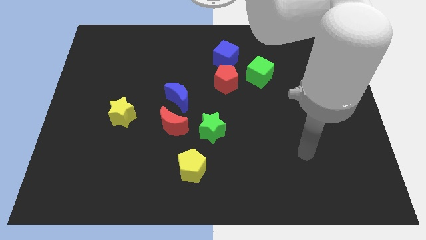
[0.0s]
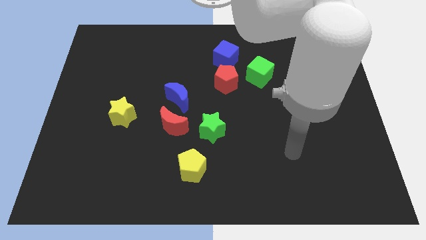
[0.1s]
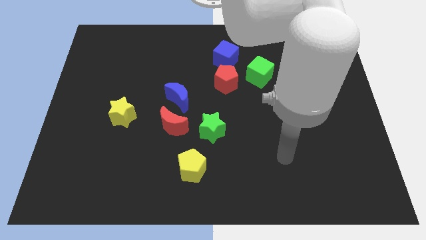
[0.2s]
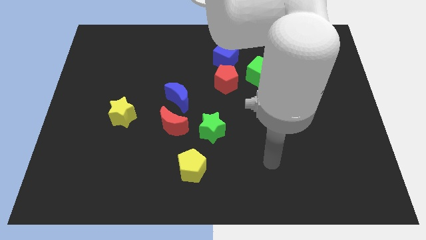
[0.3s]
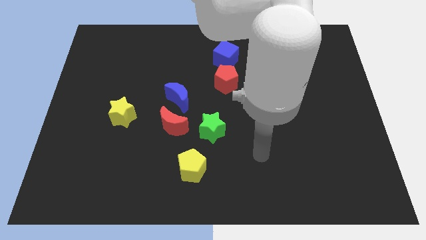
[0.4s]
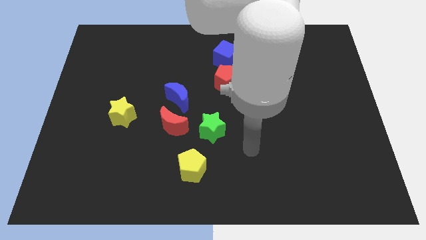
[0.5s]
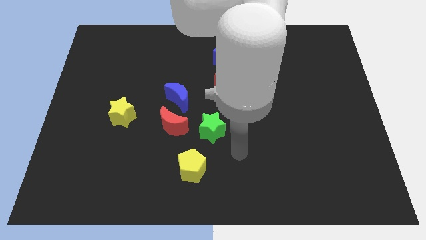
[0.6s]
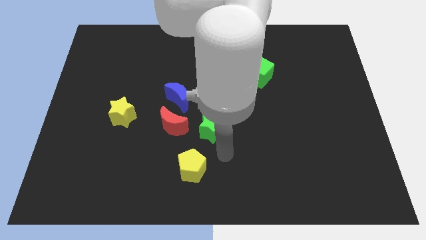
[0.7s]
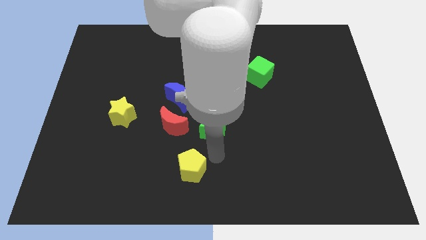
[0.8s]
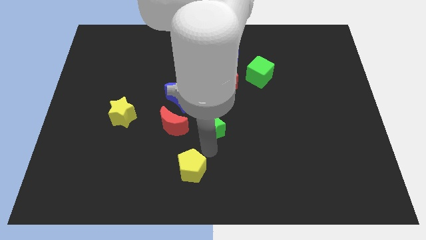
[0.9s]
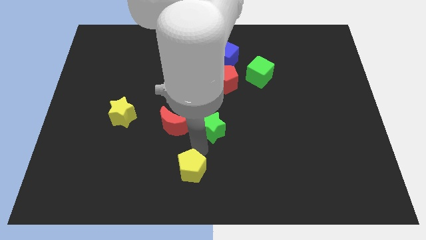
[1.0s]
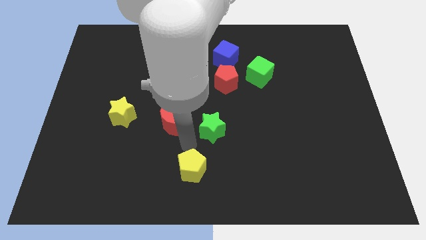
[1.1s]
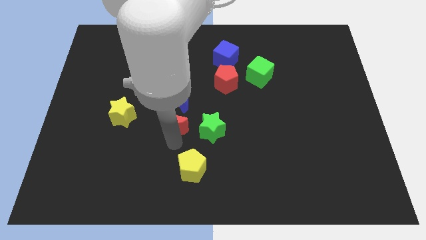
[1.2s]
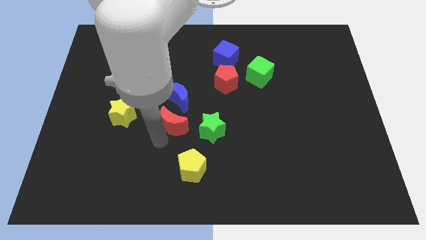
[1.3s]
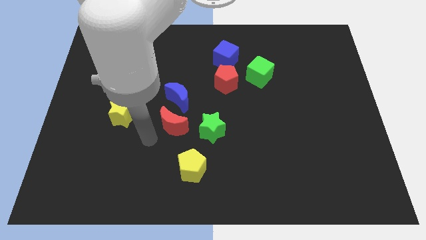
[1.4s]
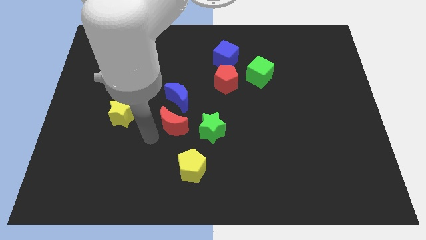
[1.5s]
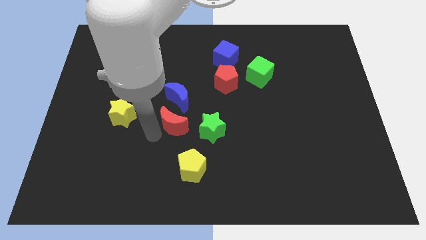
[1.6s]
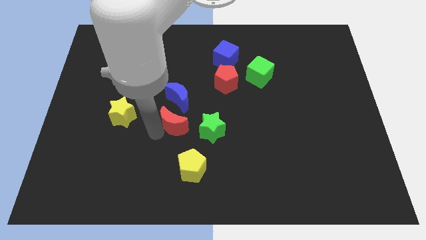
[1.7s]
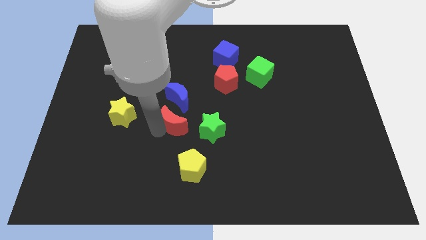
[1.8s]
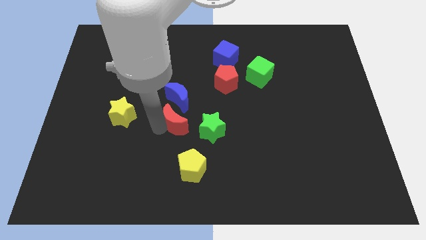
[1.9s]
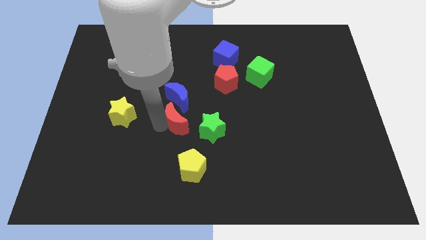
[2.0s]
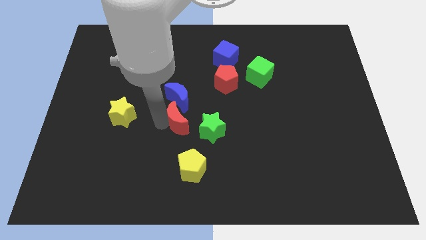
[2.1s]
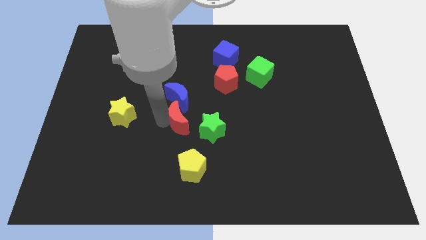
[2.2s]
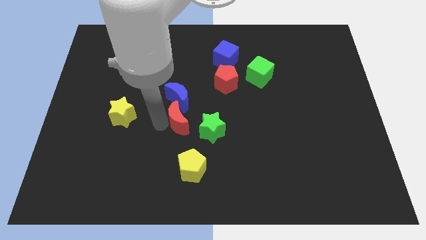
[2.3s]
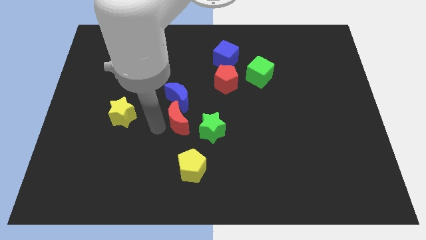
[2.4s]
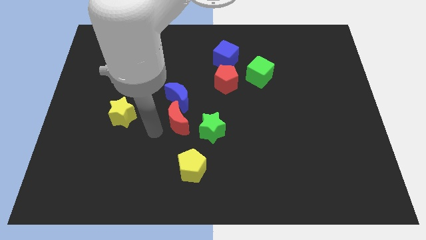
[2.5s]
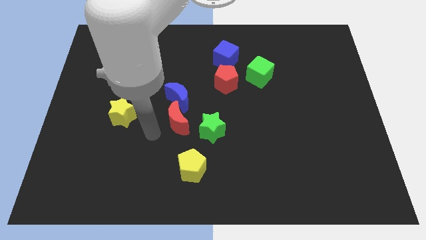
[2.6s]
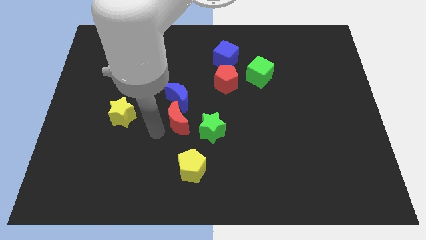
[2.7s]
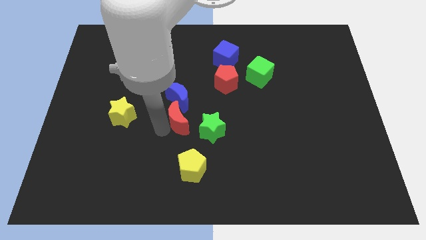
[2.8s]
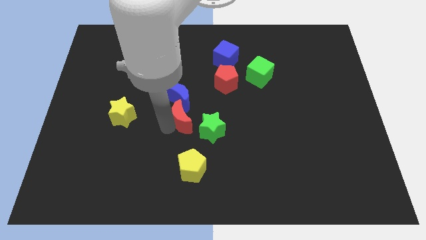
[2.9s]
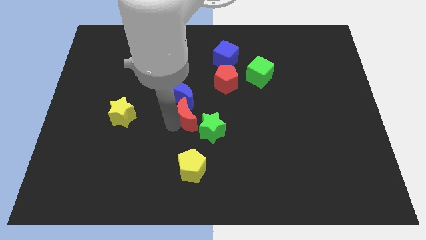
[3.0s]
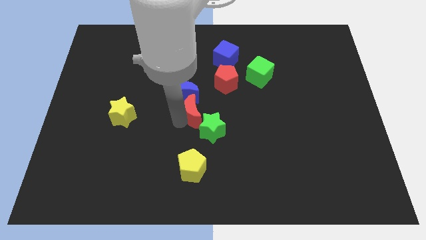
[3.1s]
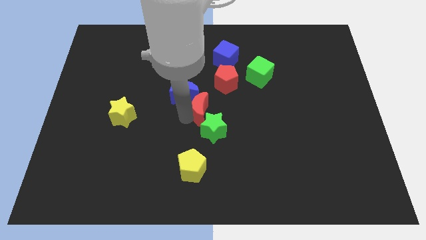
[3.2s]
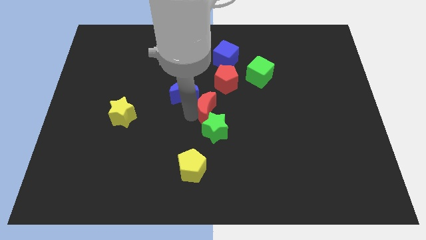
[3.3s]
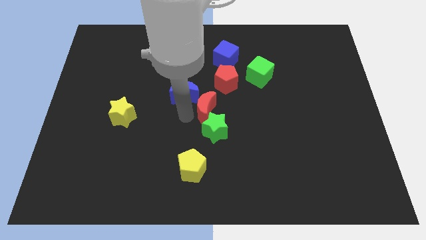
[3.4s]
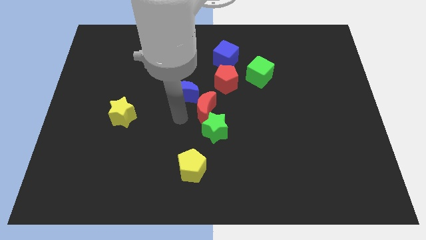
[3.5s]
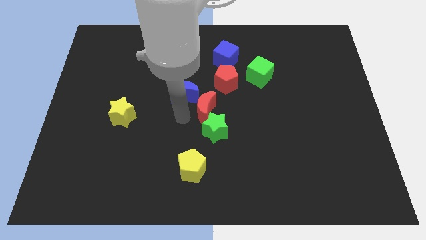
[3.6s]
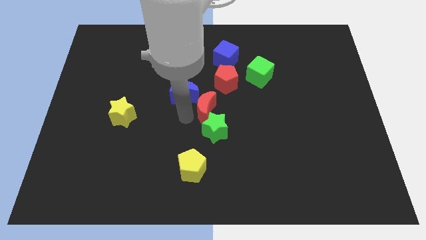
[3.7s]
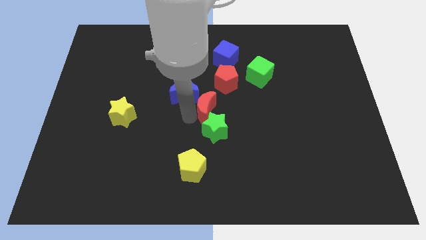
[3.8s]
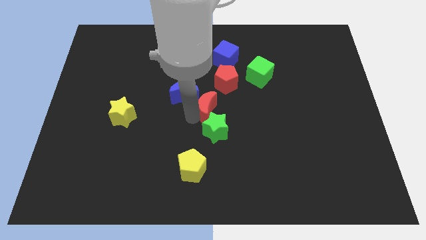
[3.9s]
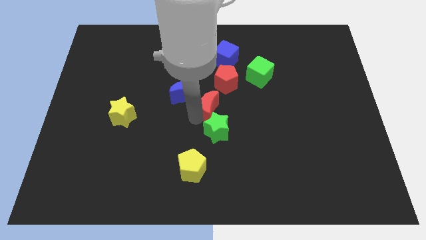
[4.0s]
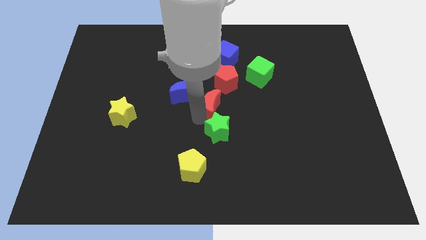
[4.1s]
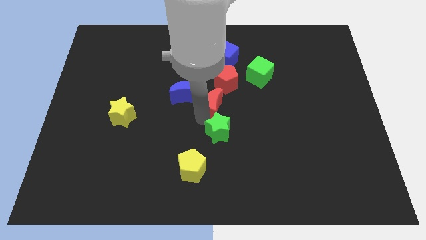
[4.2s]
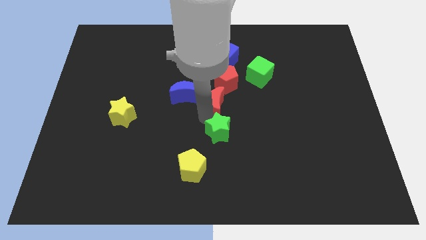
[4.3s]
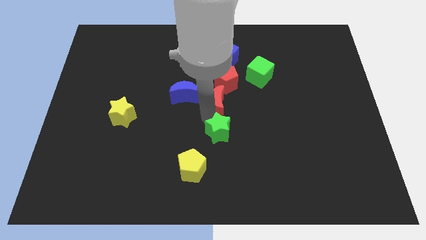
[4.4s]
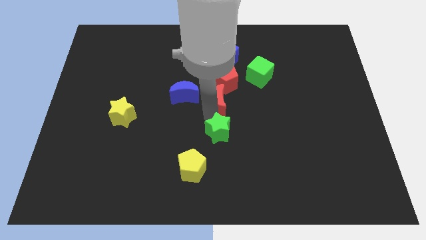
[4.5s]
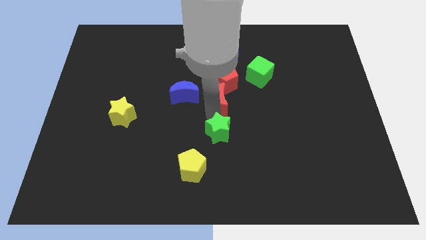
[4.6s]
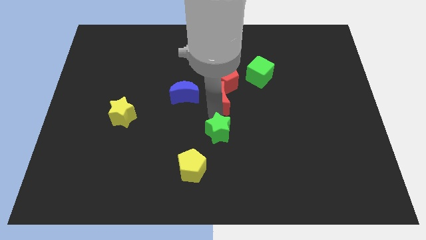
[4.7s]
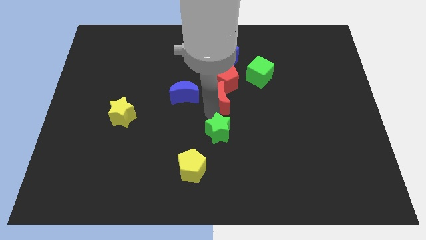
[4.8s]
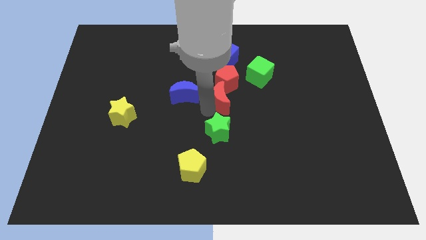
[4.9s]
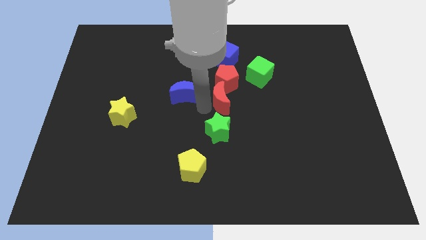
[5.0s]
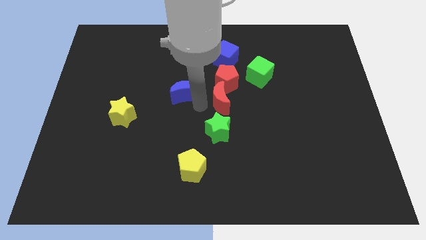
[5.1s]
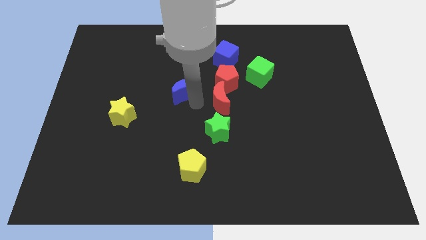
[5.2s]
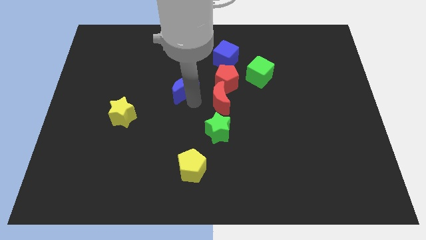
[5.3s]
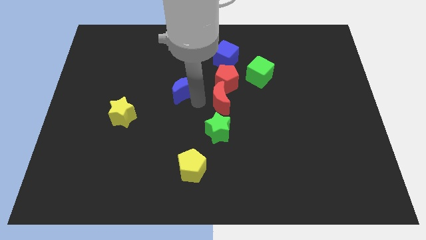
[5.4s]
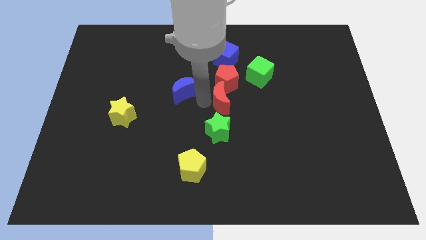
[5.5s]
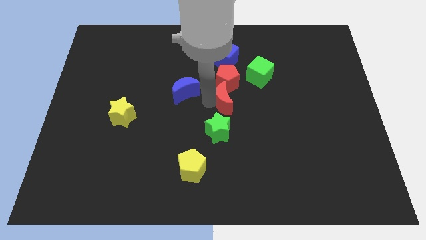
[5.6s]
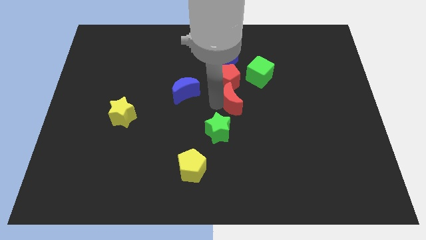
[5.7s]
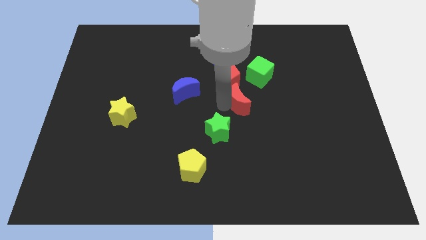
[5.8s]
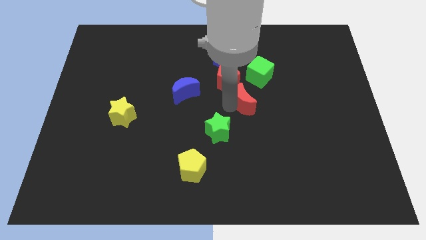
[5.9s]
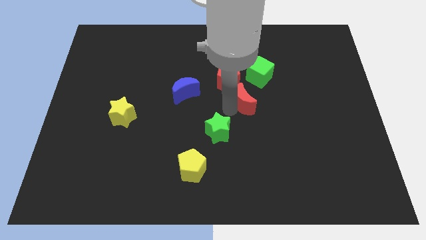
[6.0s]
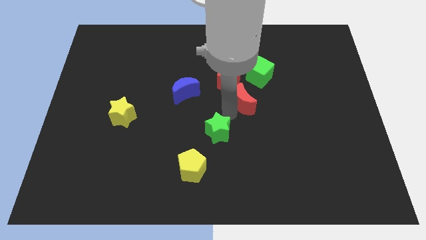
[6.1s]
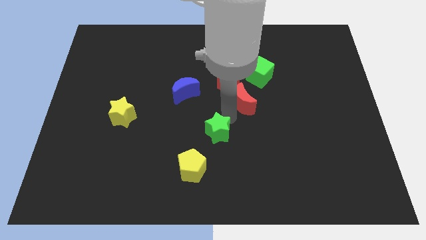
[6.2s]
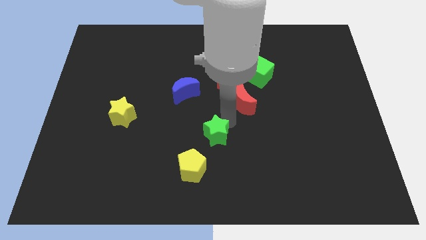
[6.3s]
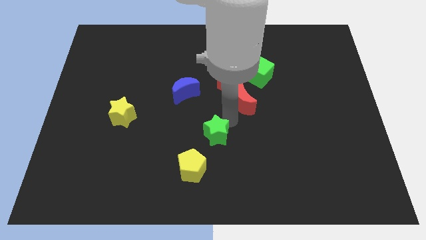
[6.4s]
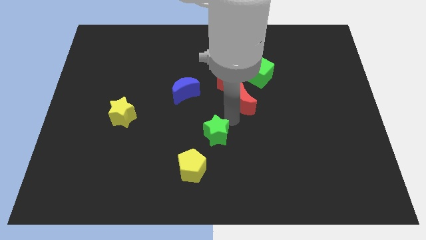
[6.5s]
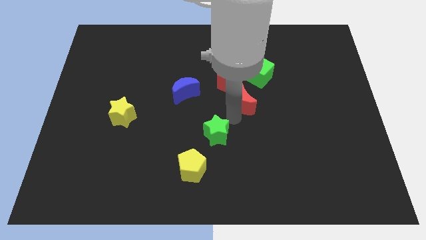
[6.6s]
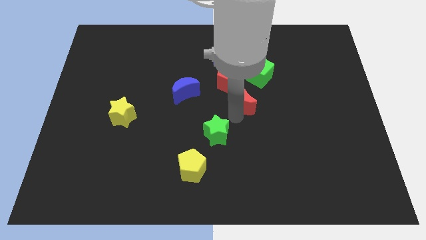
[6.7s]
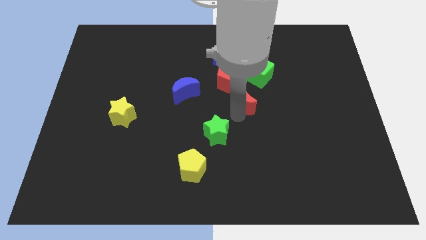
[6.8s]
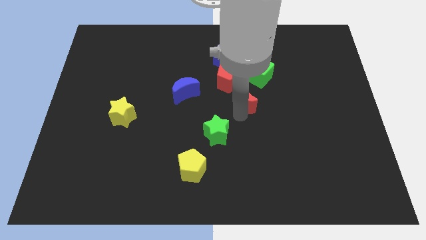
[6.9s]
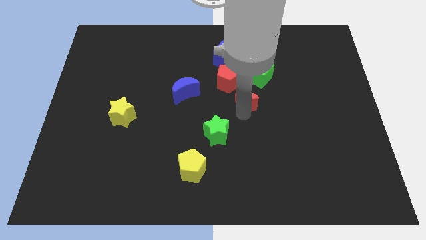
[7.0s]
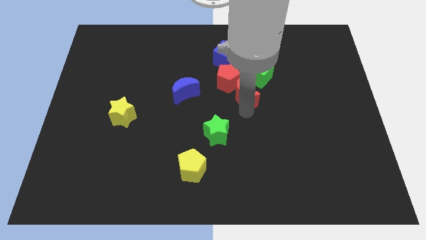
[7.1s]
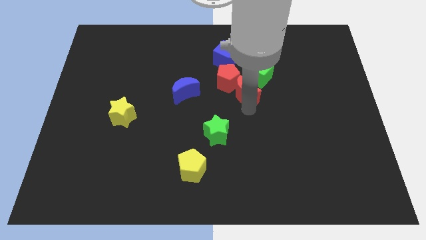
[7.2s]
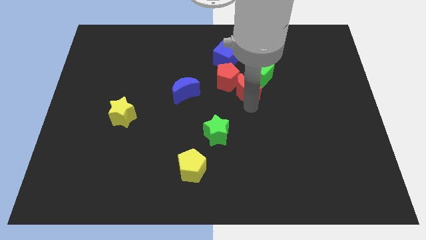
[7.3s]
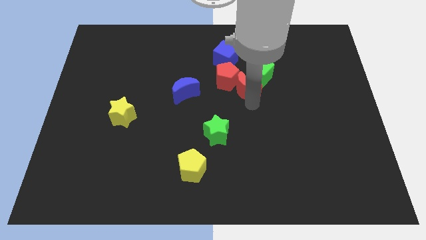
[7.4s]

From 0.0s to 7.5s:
put the red moon next to the green cube
